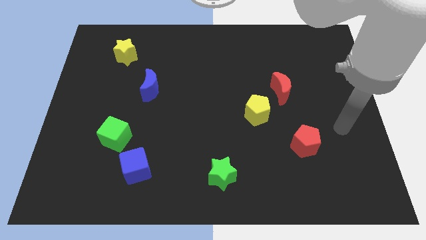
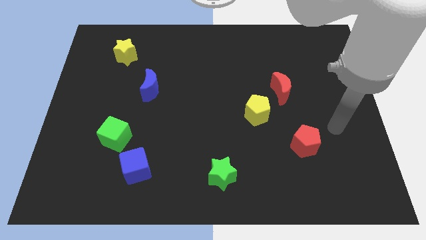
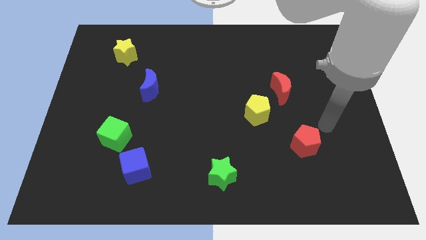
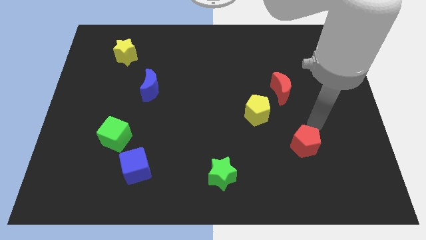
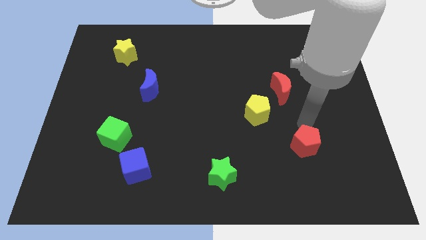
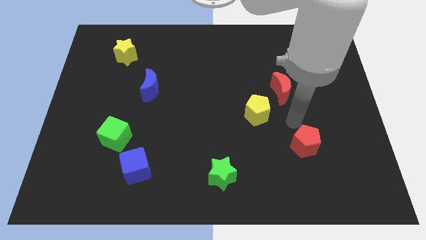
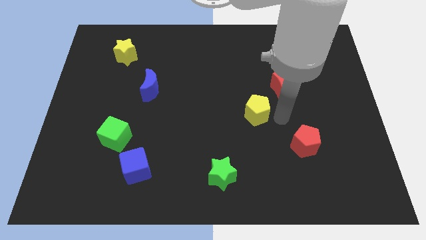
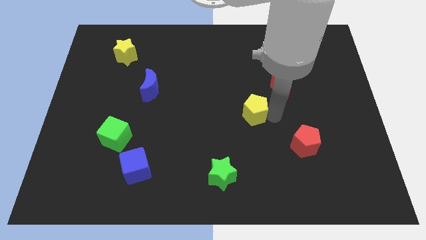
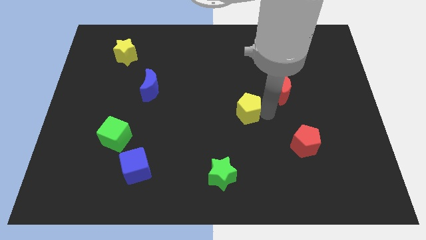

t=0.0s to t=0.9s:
pull the red moon apart from the yellow pentagon

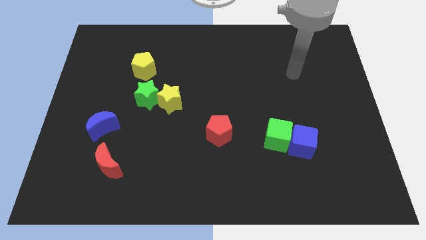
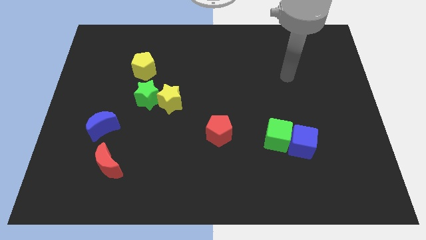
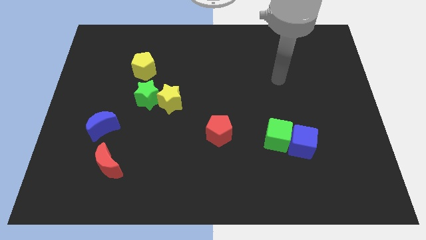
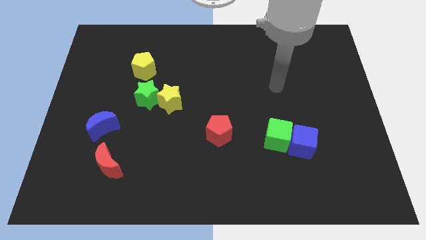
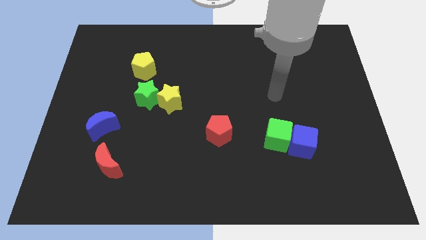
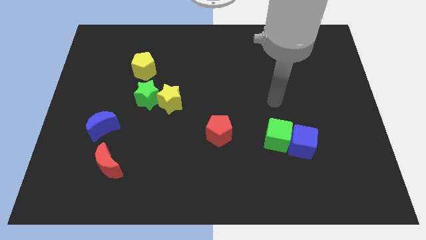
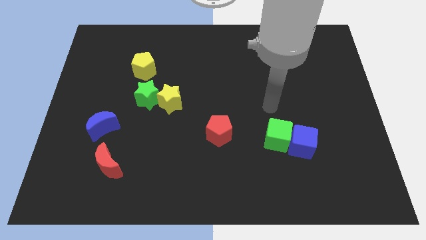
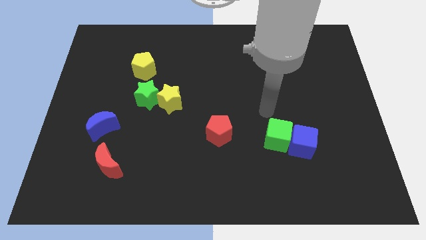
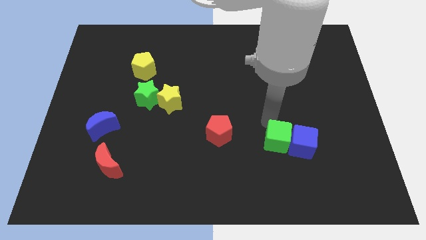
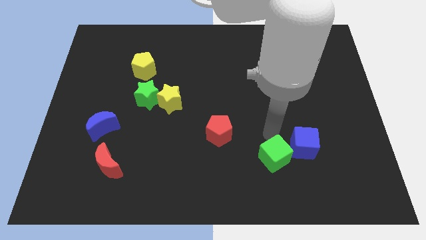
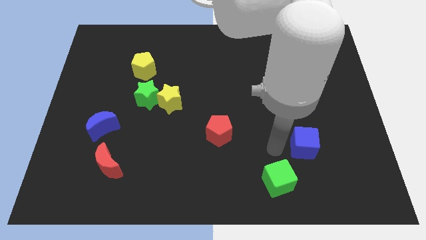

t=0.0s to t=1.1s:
separate the blue cube from the green cube

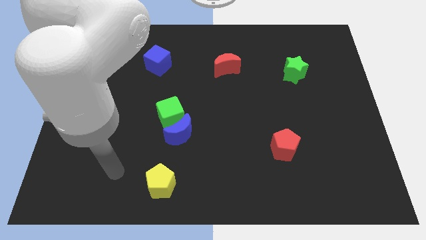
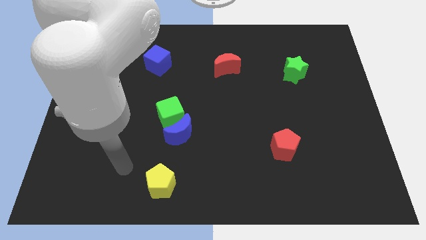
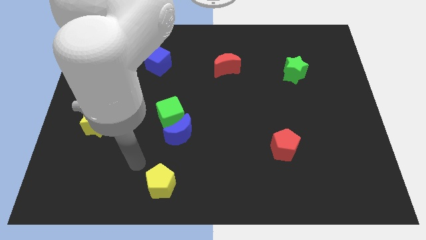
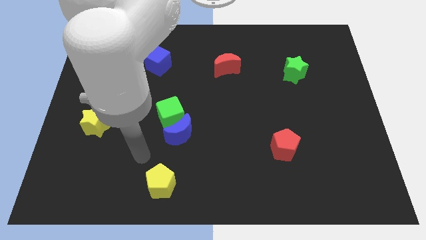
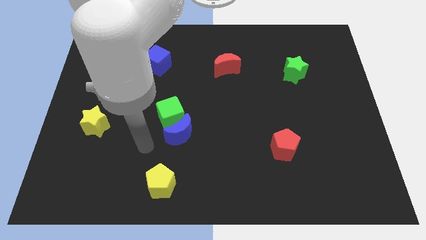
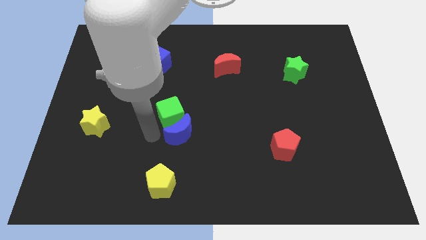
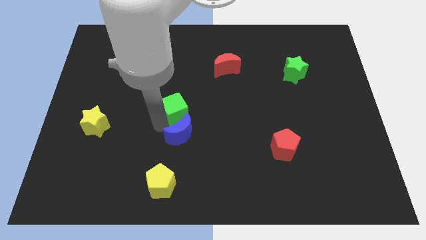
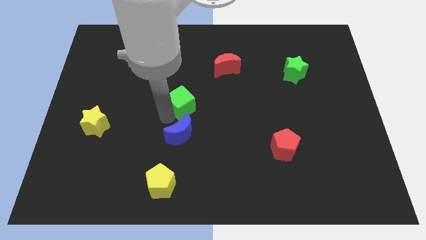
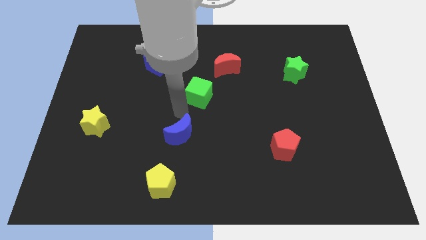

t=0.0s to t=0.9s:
separate the blue moon from the green cube

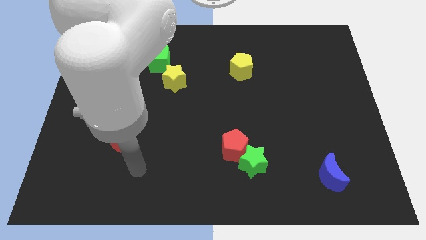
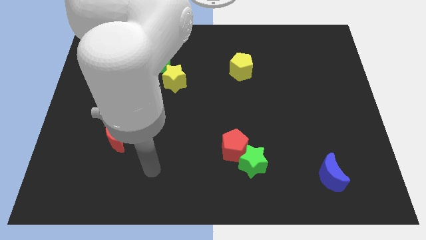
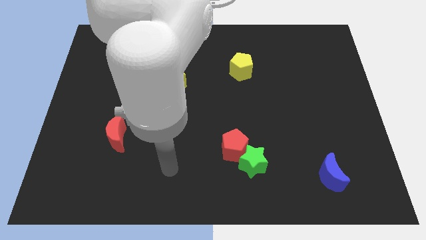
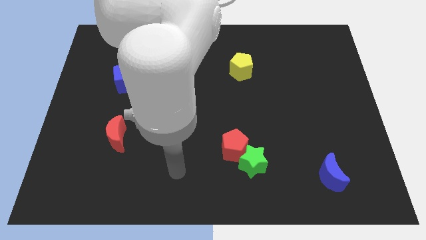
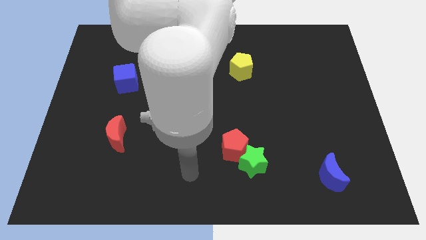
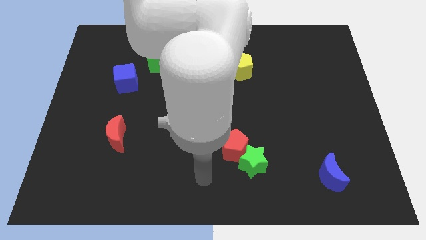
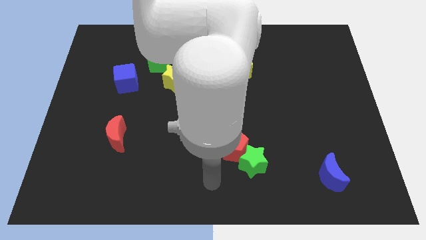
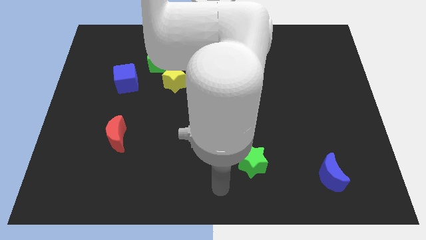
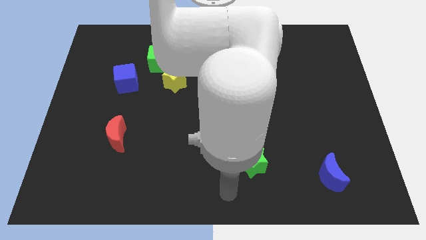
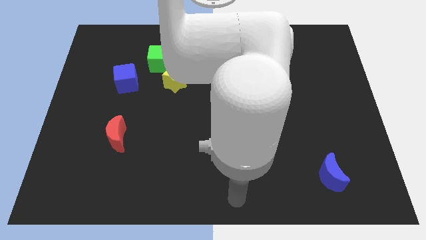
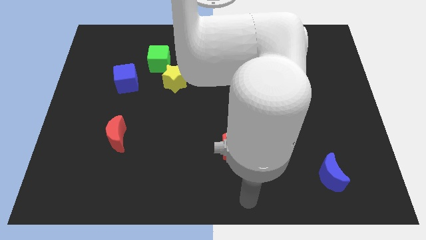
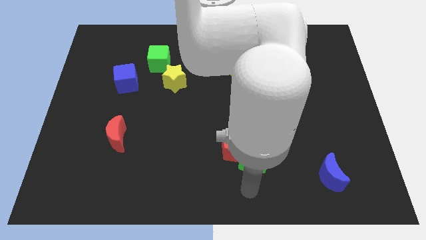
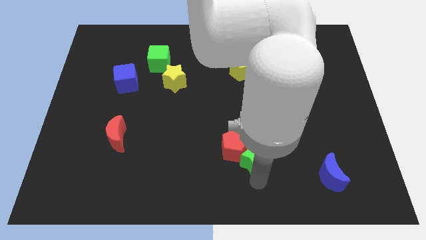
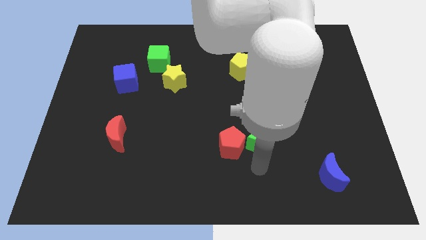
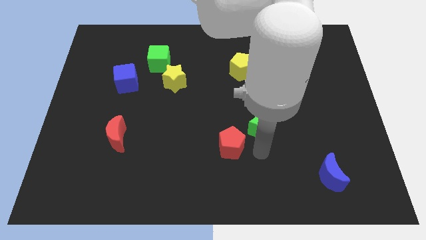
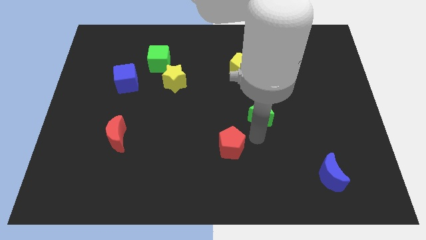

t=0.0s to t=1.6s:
pull the red pentagon apart from the green star

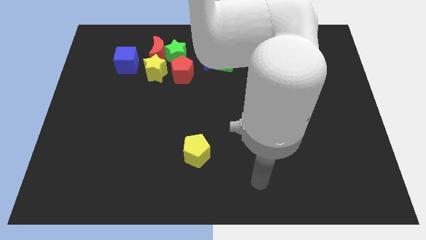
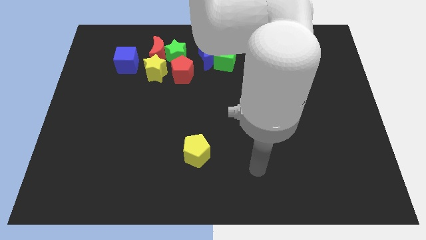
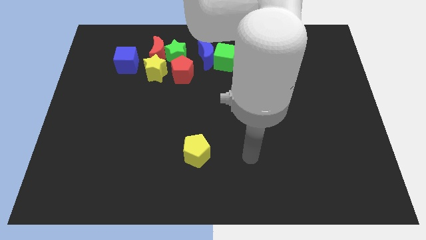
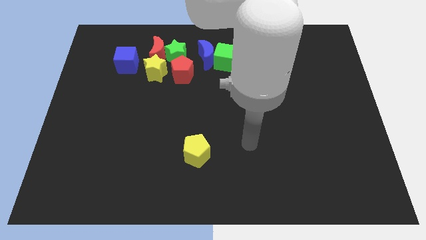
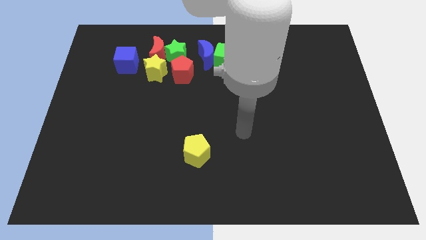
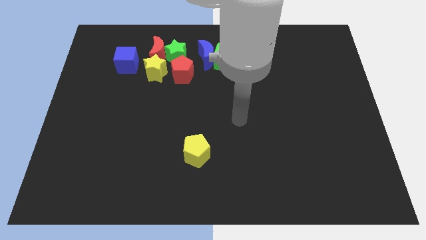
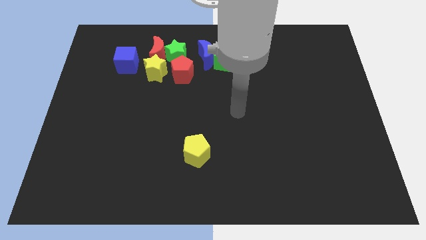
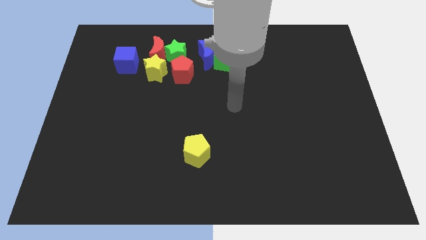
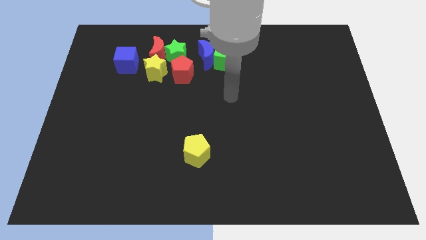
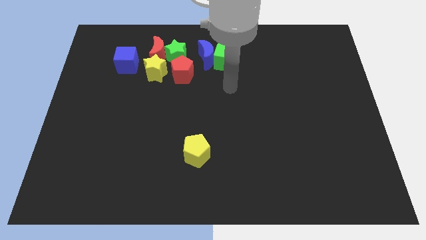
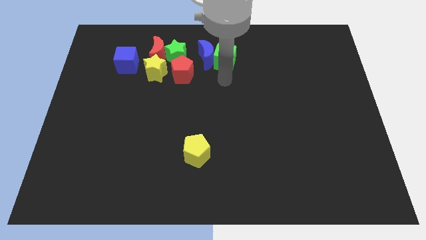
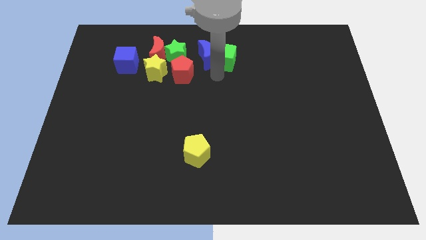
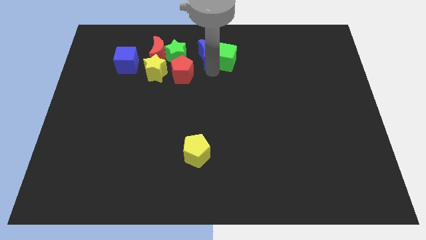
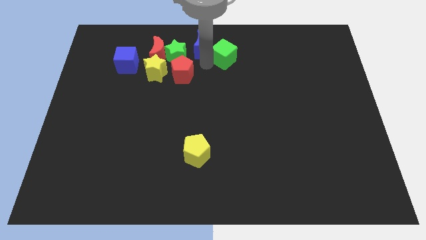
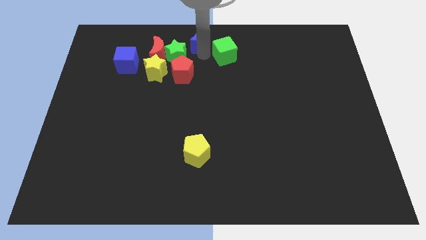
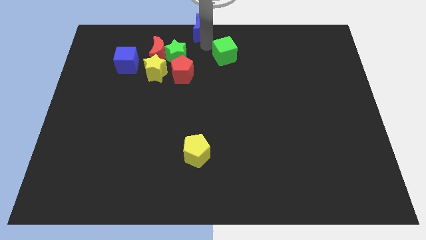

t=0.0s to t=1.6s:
pull the green cube apart from the blue moon

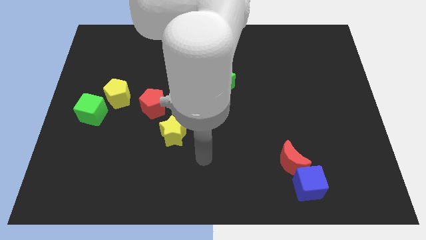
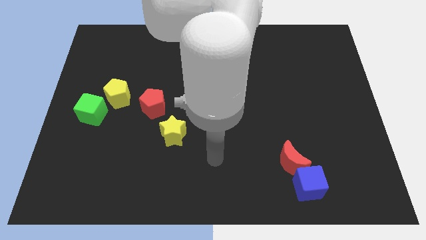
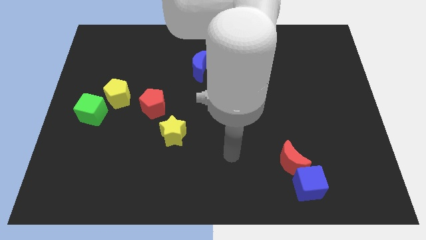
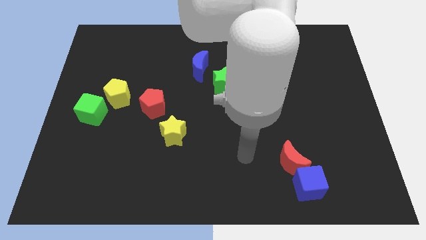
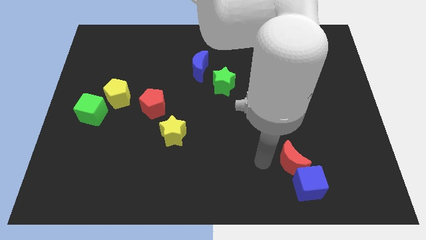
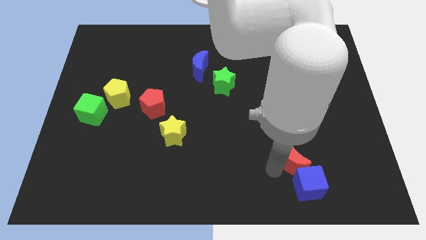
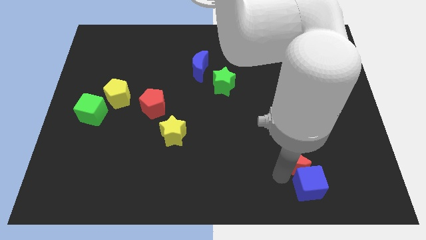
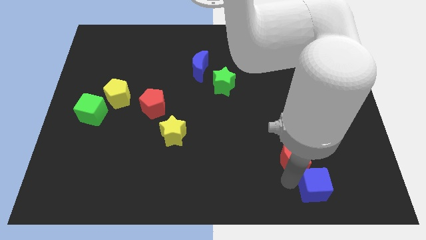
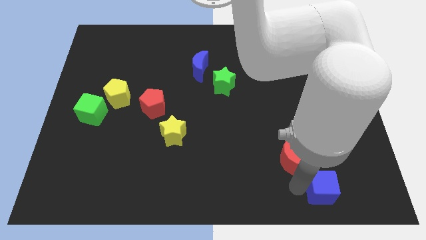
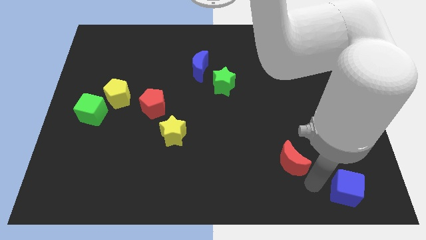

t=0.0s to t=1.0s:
separate the red moon from the blue cube

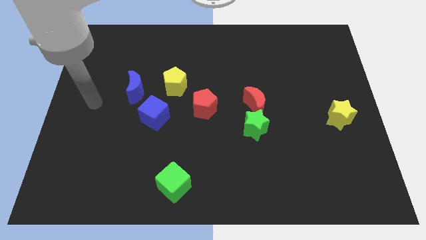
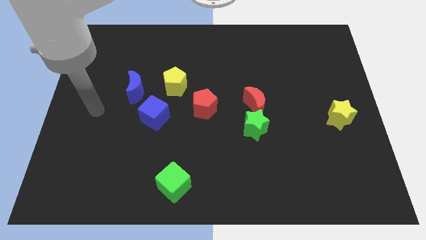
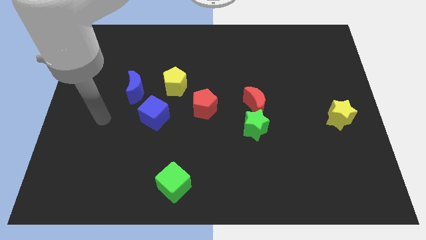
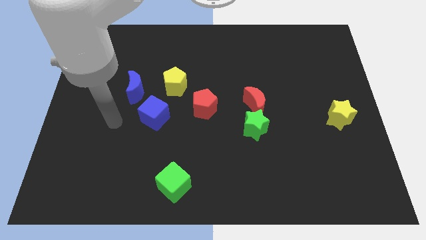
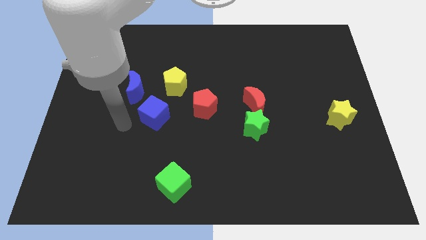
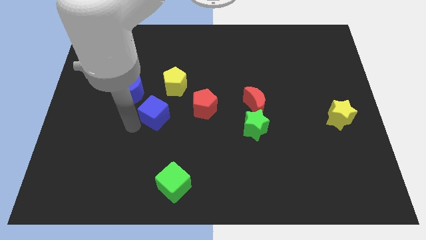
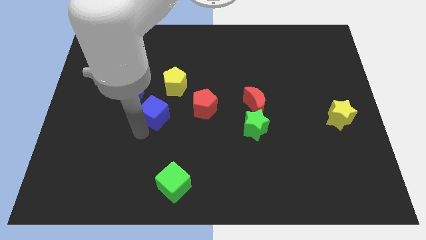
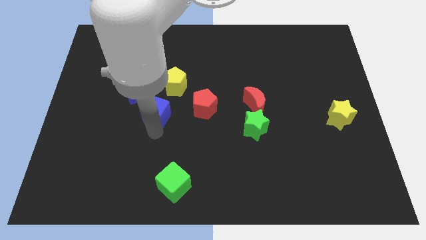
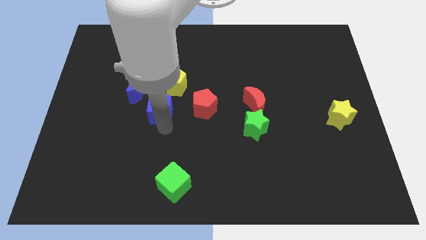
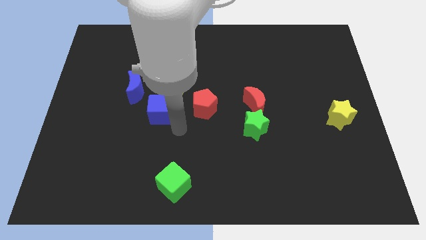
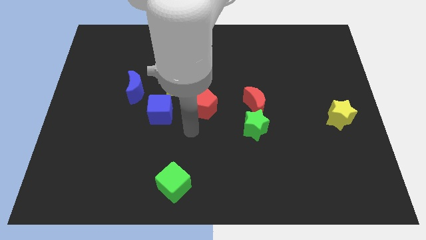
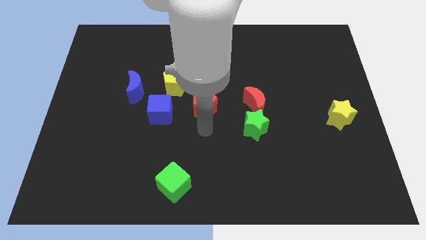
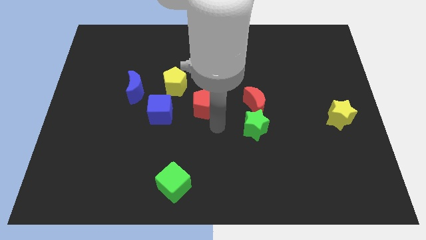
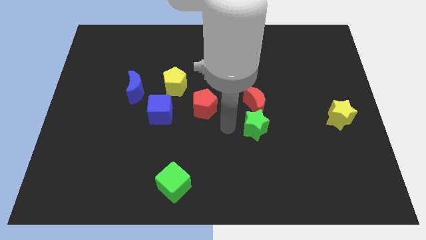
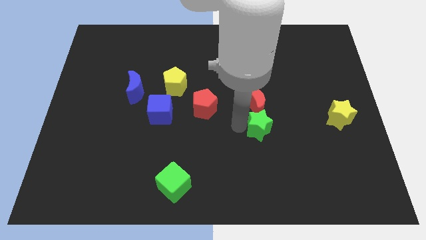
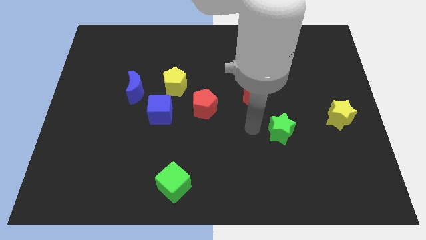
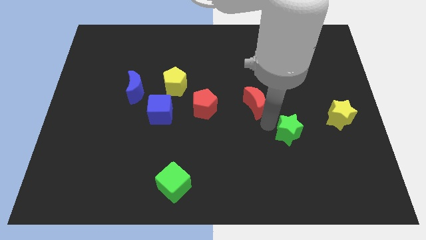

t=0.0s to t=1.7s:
pull the red moon apart from the green star

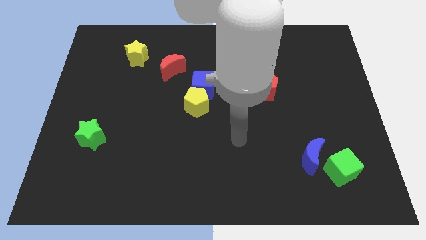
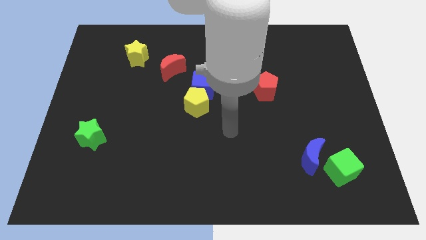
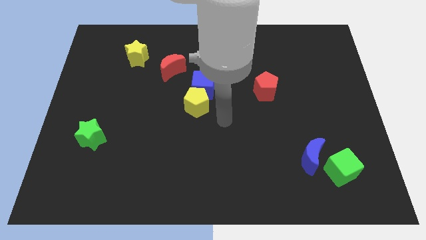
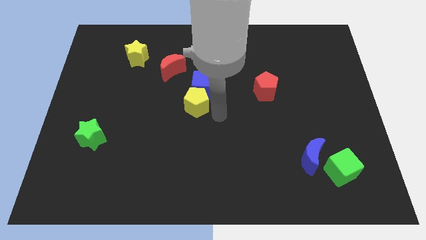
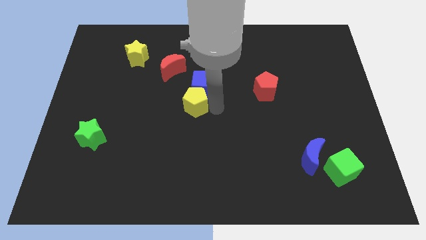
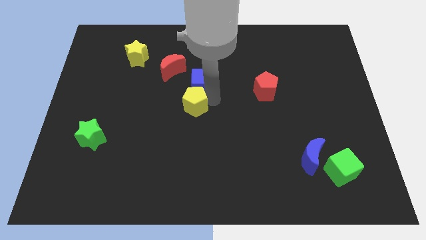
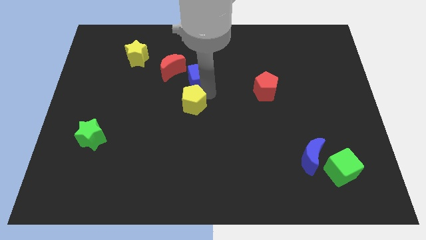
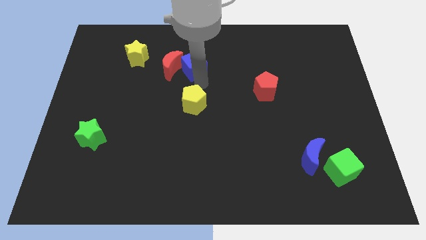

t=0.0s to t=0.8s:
move the yellow pentagon away from the blue cube
